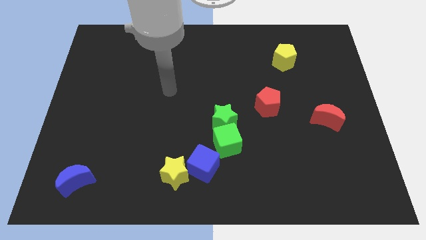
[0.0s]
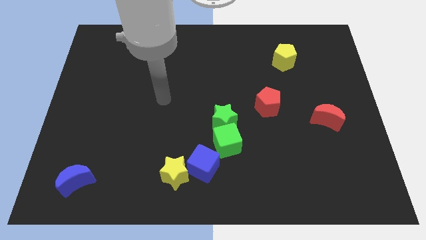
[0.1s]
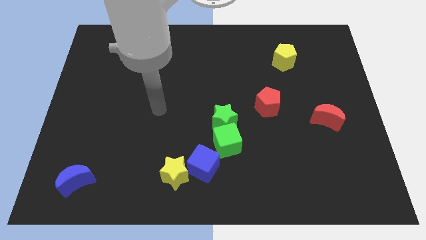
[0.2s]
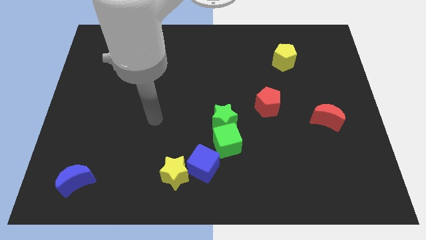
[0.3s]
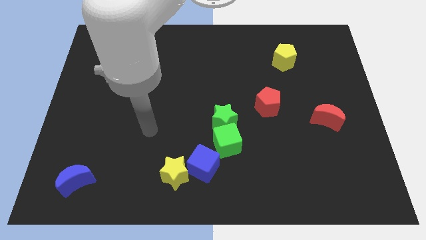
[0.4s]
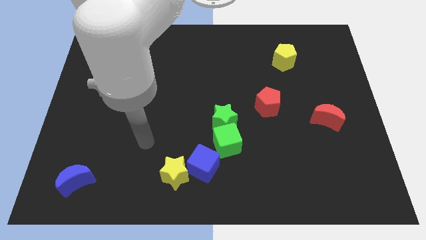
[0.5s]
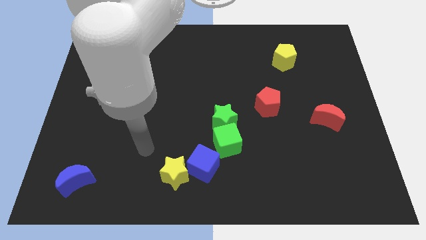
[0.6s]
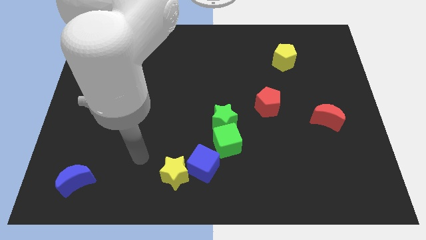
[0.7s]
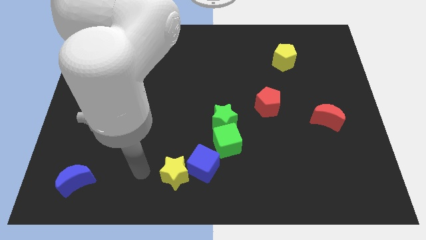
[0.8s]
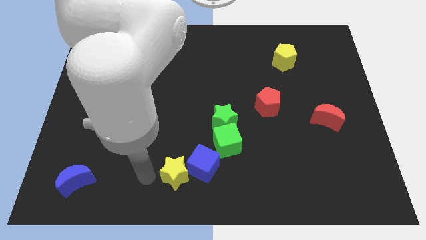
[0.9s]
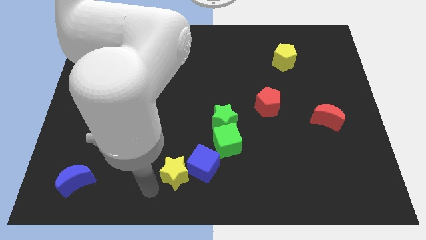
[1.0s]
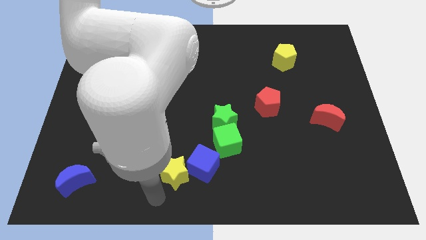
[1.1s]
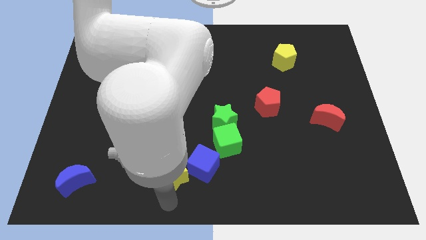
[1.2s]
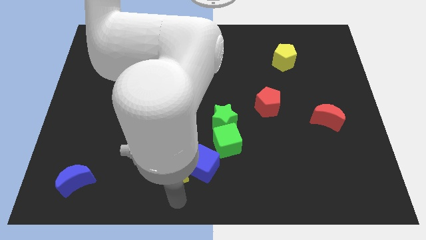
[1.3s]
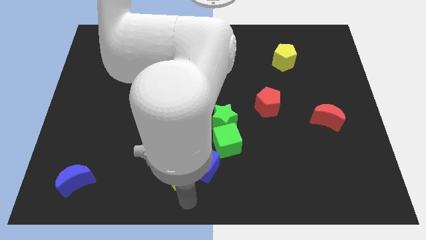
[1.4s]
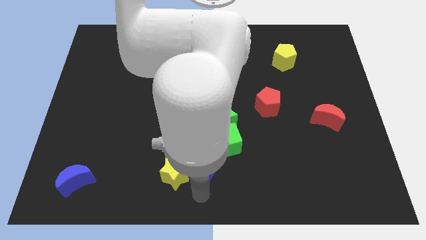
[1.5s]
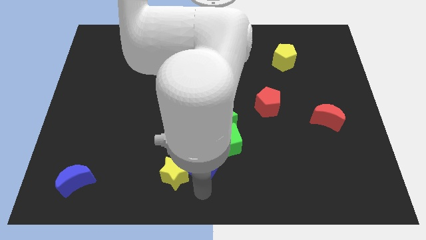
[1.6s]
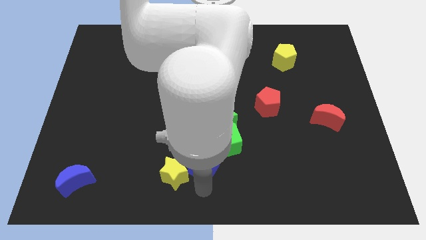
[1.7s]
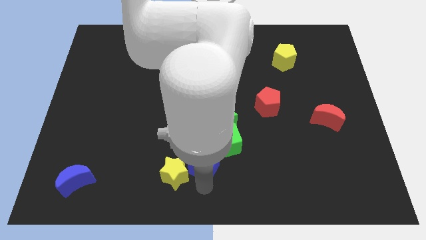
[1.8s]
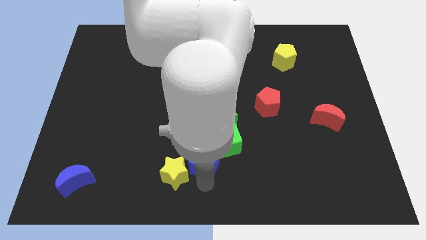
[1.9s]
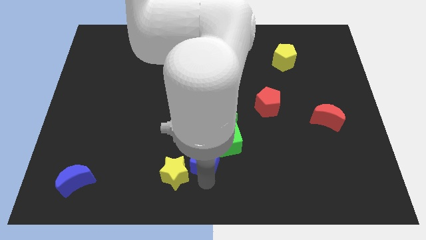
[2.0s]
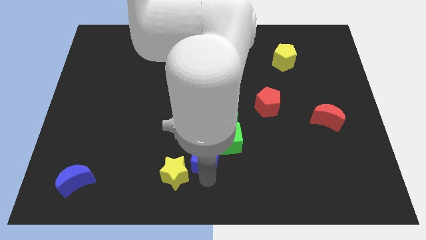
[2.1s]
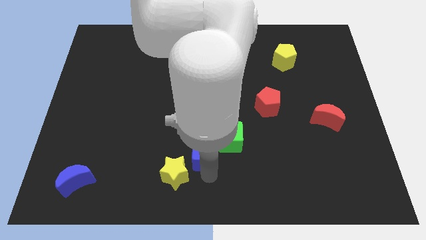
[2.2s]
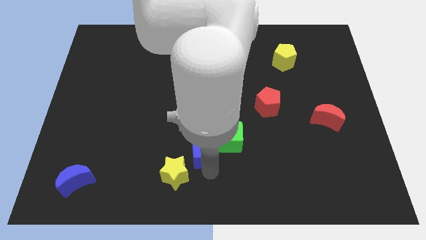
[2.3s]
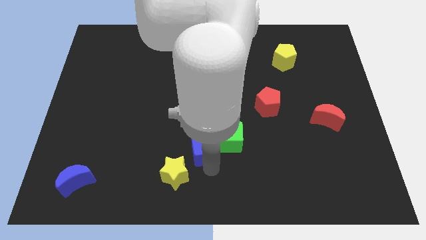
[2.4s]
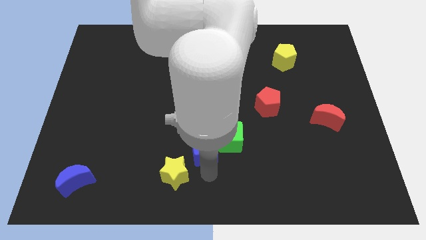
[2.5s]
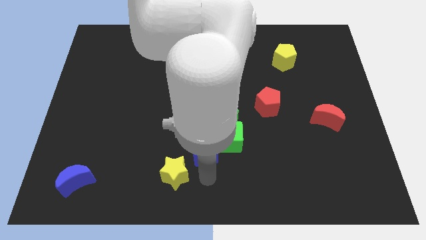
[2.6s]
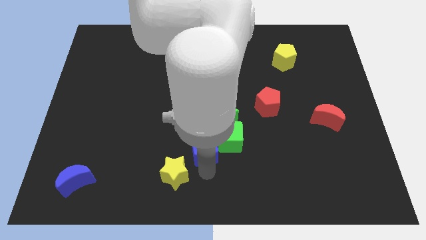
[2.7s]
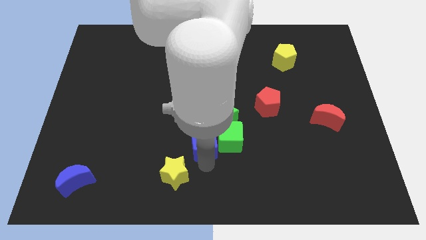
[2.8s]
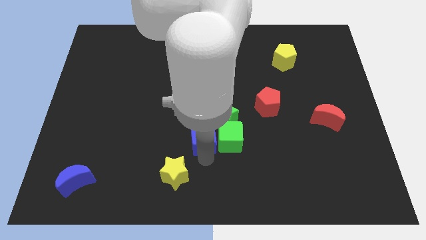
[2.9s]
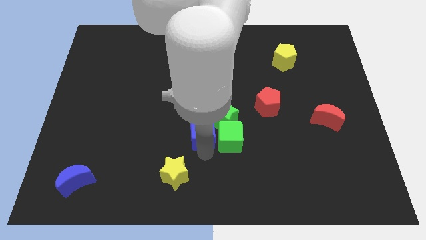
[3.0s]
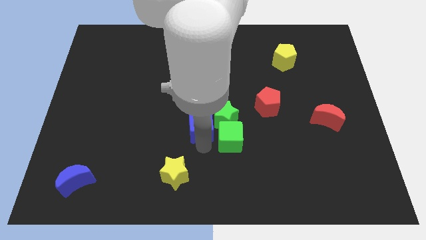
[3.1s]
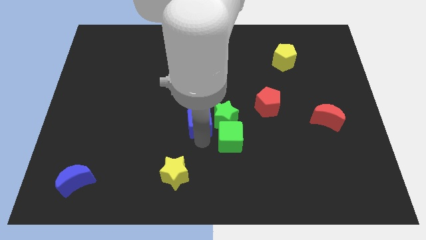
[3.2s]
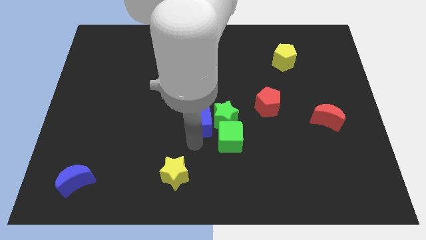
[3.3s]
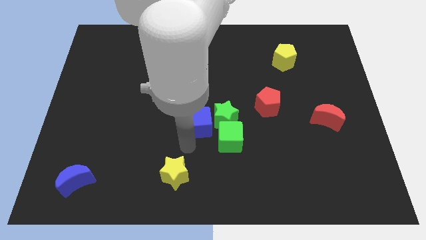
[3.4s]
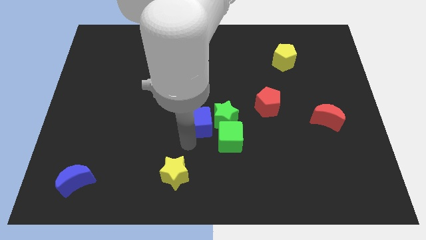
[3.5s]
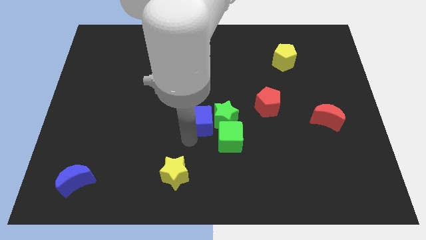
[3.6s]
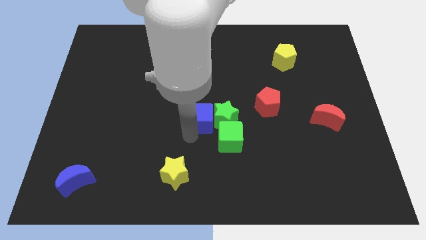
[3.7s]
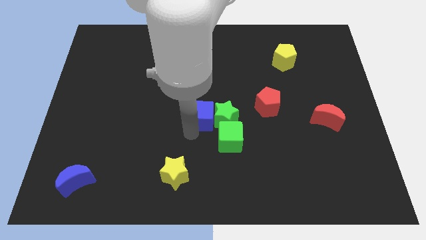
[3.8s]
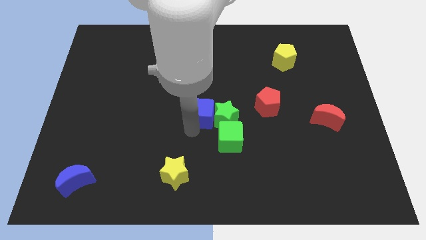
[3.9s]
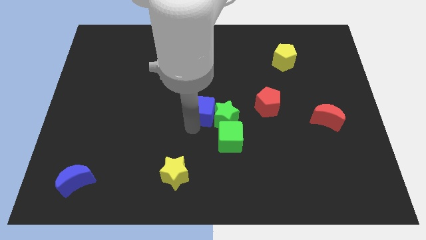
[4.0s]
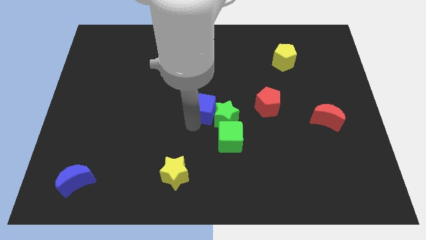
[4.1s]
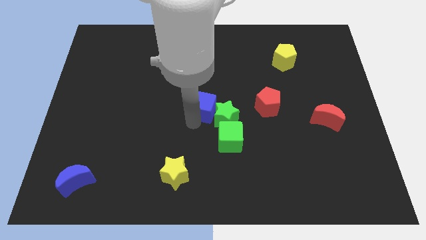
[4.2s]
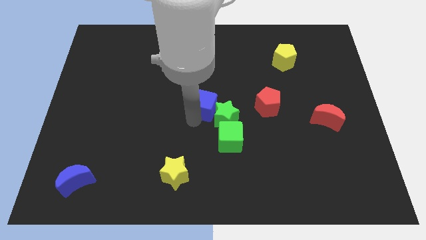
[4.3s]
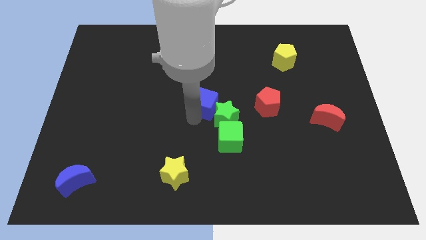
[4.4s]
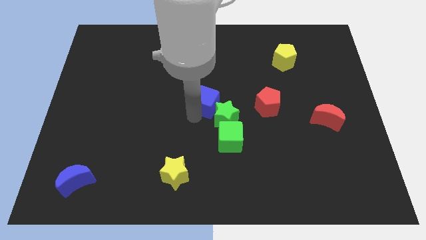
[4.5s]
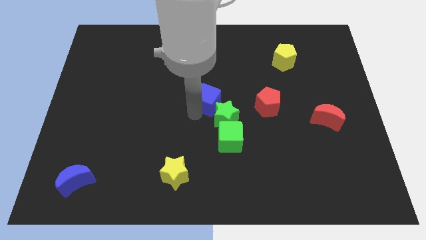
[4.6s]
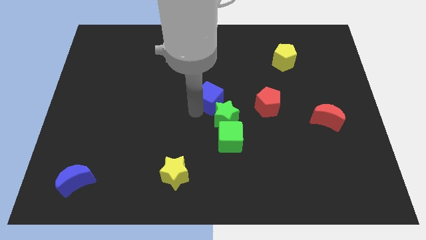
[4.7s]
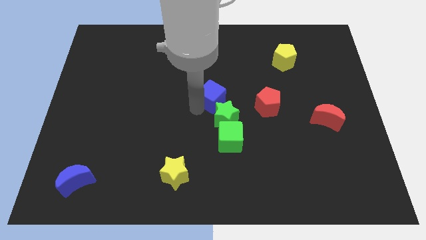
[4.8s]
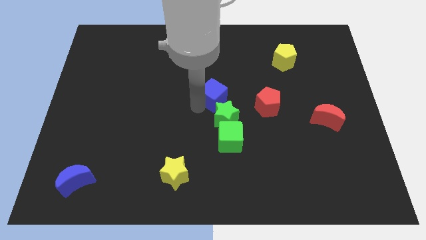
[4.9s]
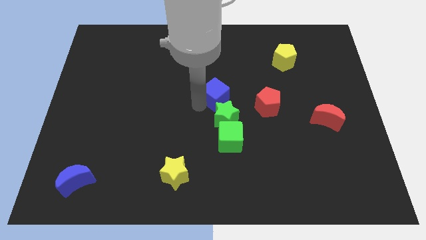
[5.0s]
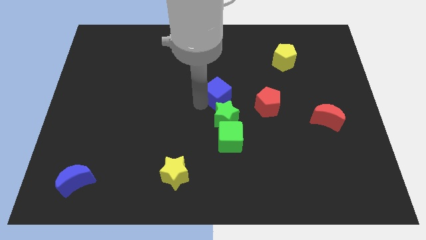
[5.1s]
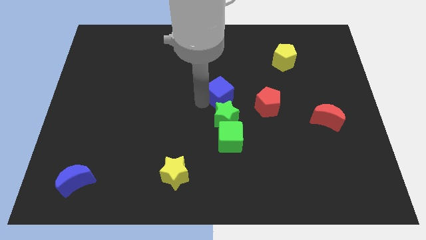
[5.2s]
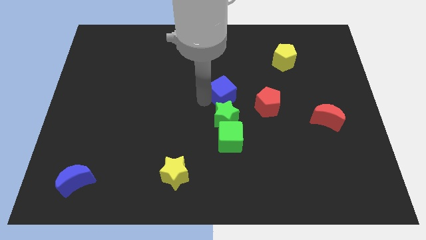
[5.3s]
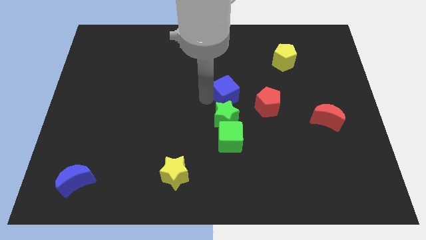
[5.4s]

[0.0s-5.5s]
push the blue cube diagonally up and to the left of the red pentagon

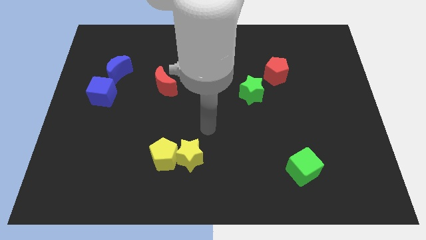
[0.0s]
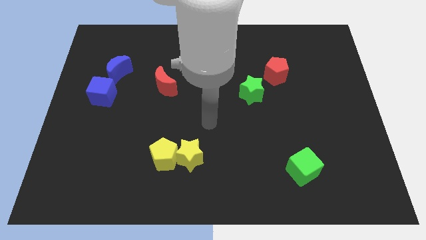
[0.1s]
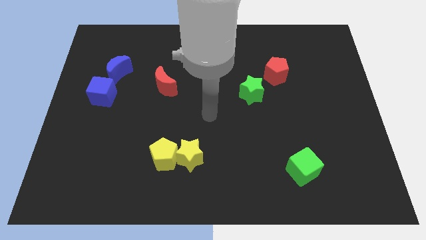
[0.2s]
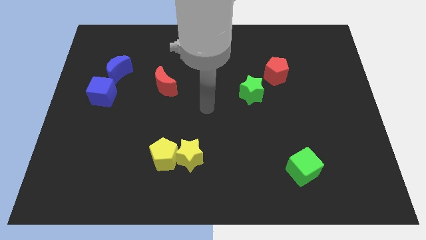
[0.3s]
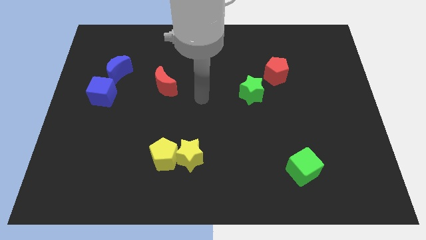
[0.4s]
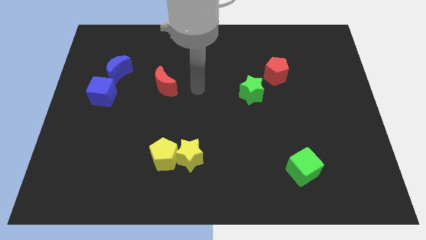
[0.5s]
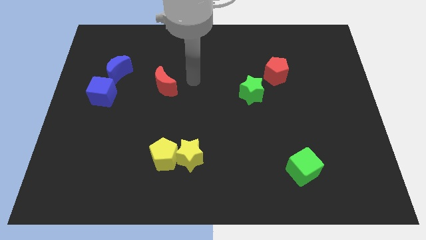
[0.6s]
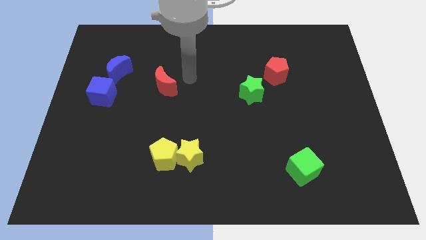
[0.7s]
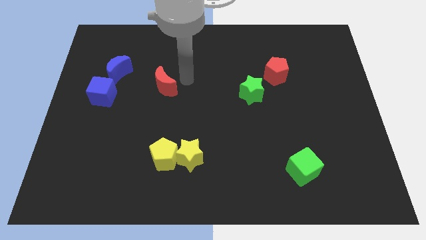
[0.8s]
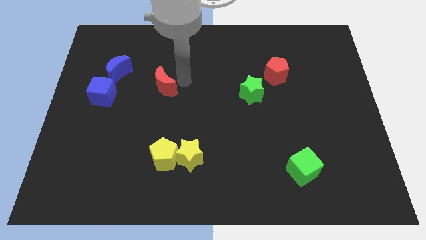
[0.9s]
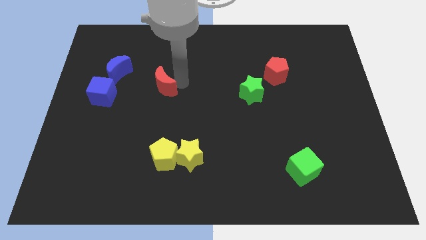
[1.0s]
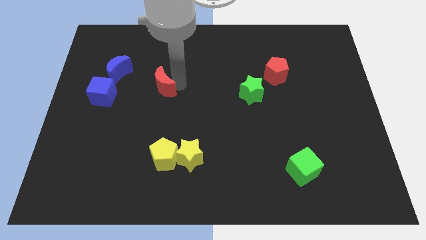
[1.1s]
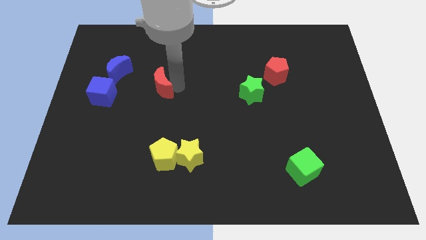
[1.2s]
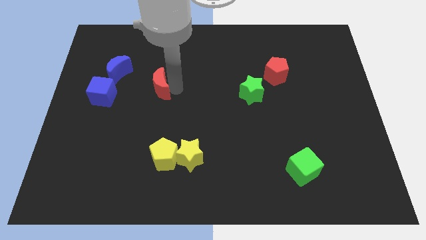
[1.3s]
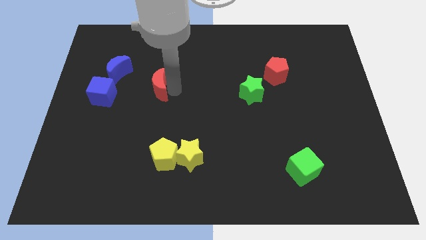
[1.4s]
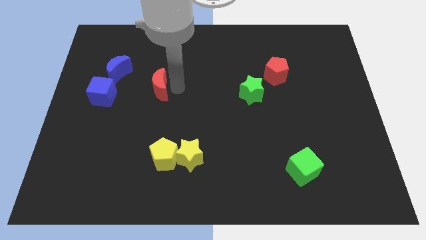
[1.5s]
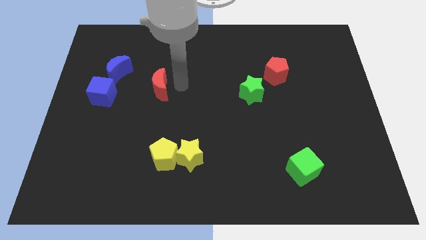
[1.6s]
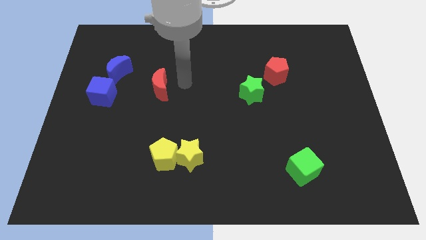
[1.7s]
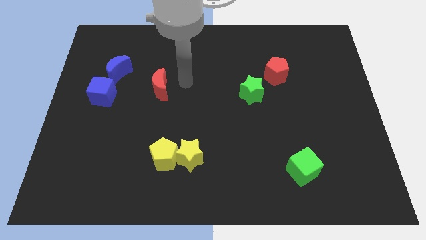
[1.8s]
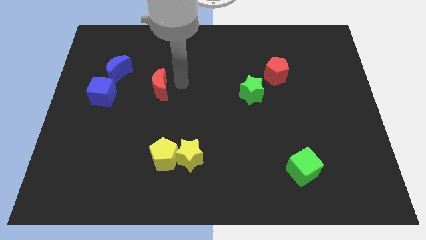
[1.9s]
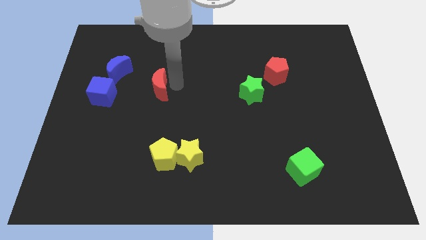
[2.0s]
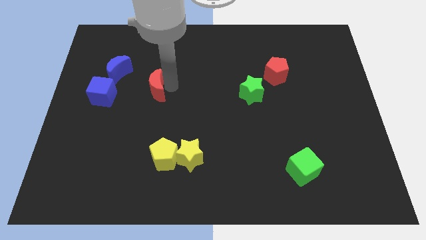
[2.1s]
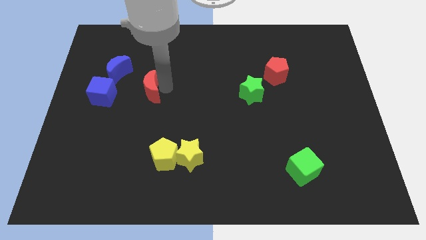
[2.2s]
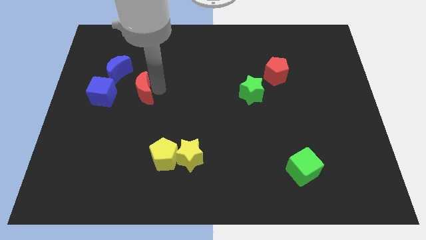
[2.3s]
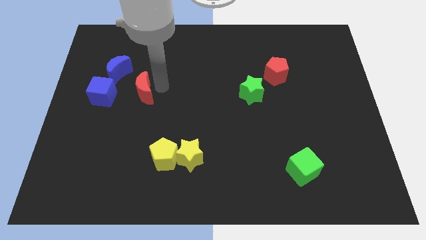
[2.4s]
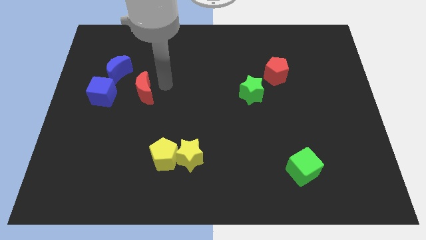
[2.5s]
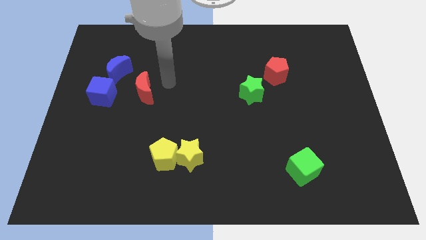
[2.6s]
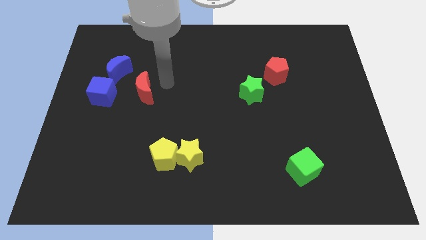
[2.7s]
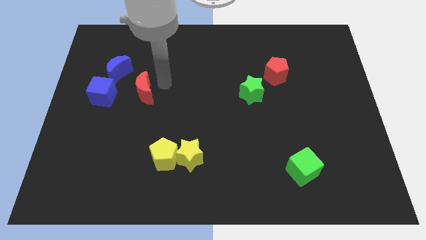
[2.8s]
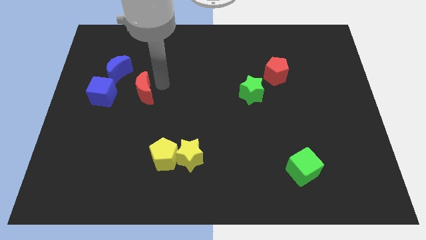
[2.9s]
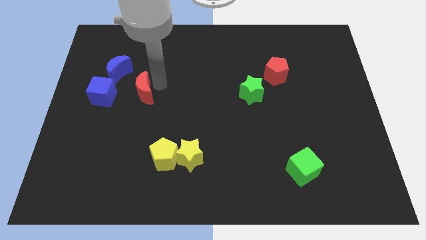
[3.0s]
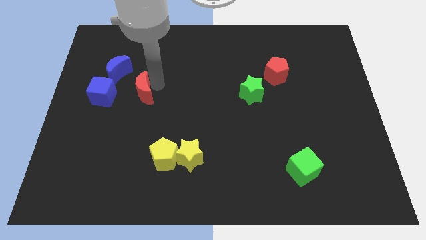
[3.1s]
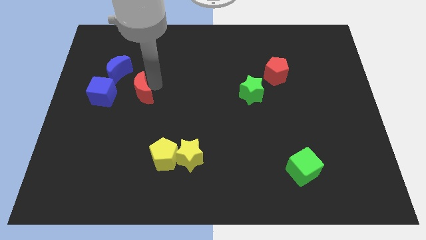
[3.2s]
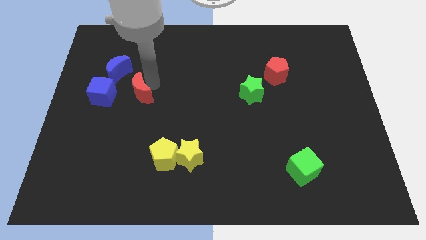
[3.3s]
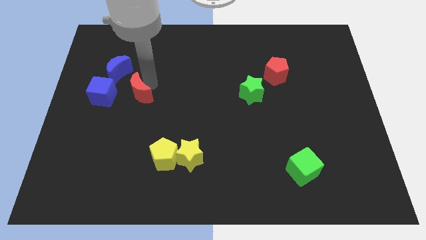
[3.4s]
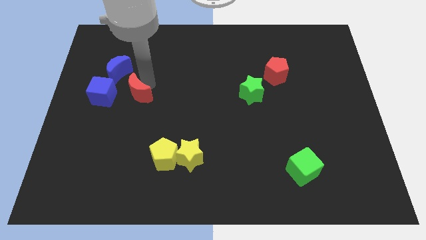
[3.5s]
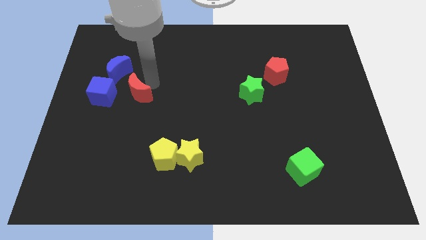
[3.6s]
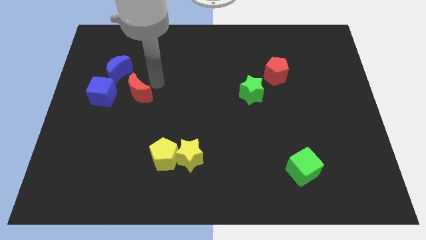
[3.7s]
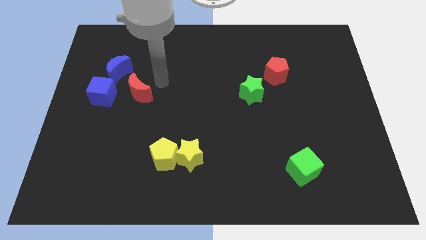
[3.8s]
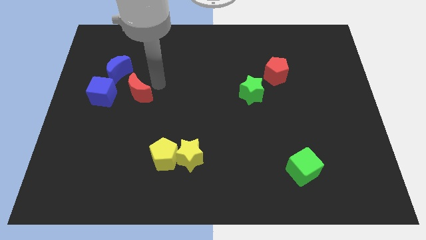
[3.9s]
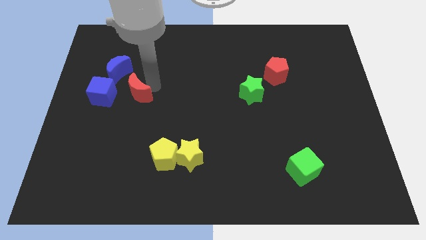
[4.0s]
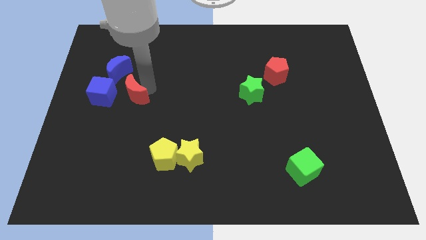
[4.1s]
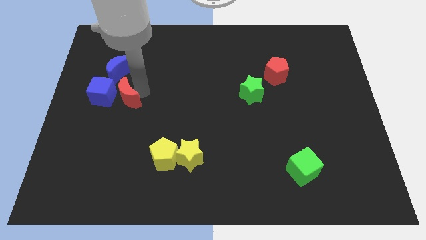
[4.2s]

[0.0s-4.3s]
put the red moon to the bottom side of the blue moon
